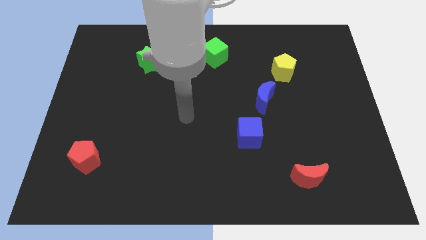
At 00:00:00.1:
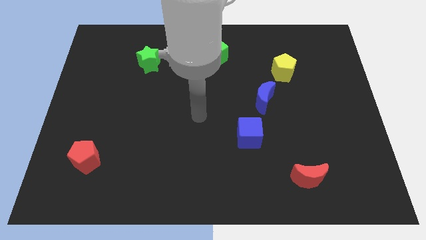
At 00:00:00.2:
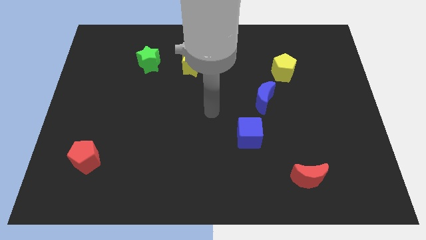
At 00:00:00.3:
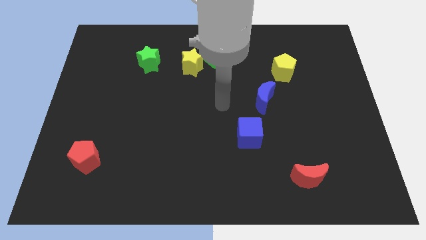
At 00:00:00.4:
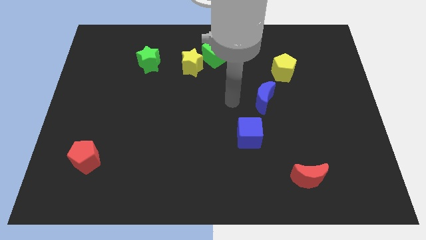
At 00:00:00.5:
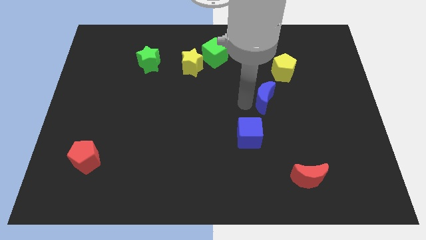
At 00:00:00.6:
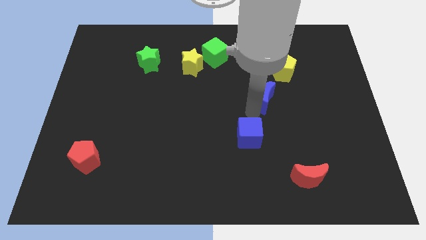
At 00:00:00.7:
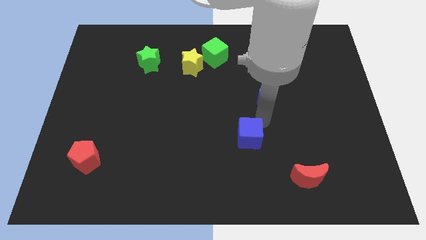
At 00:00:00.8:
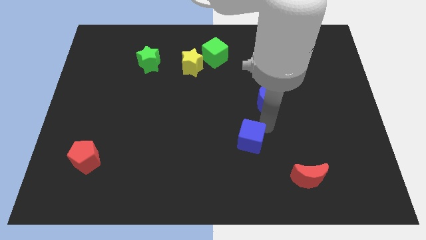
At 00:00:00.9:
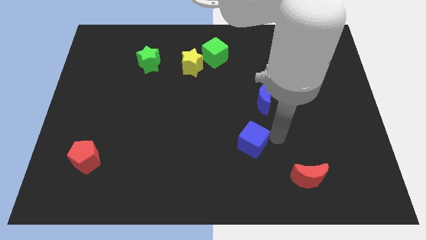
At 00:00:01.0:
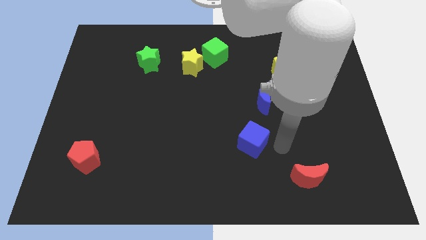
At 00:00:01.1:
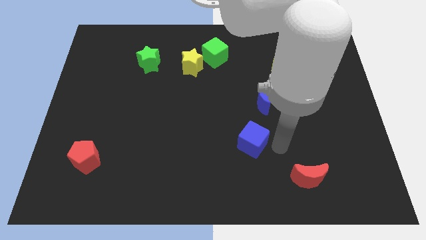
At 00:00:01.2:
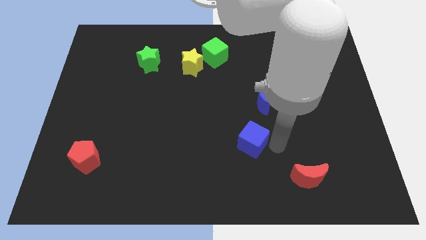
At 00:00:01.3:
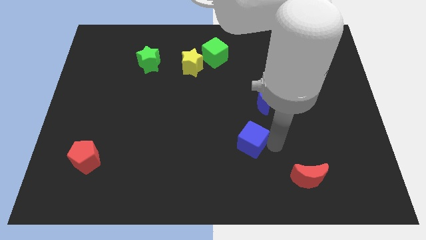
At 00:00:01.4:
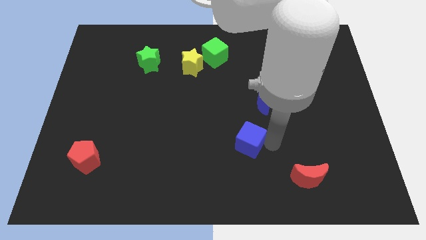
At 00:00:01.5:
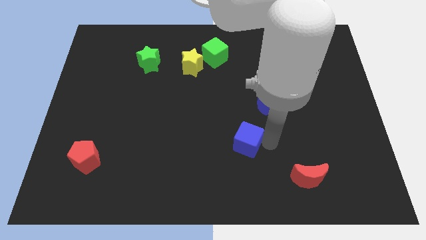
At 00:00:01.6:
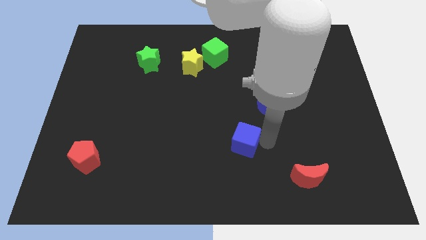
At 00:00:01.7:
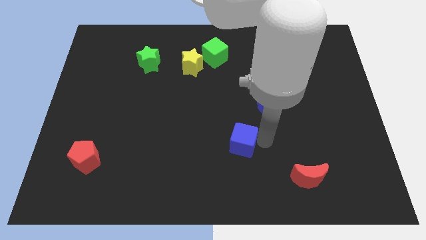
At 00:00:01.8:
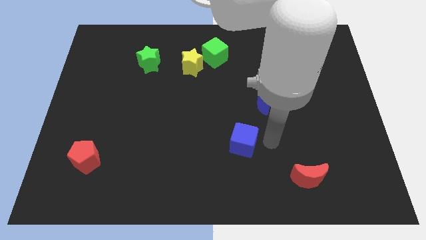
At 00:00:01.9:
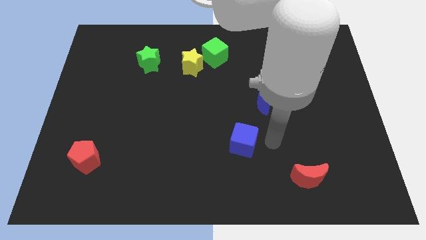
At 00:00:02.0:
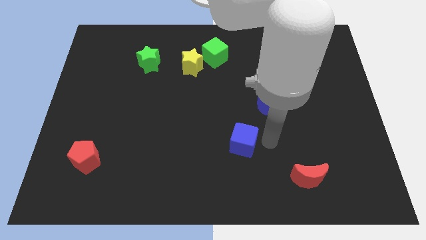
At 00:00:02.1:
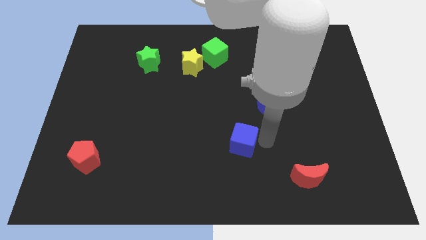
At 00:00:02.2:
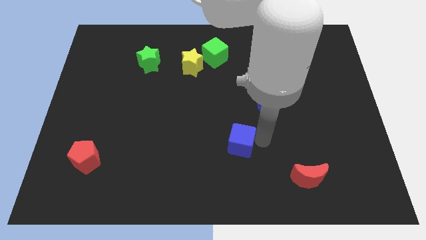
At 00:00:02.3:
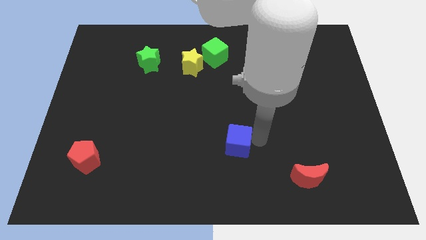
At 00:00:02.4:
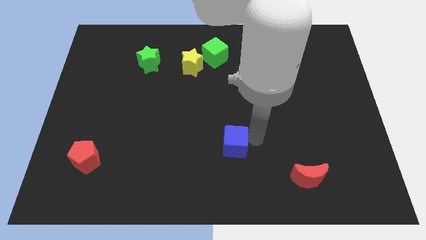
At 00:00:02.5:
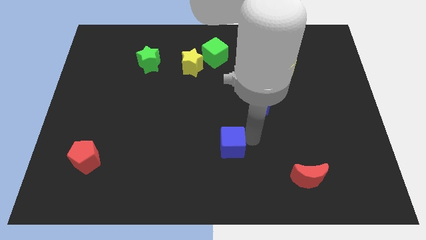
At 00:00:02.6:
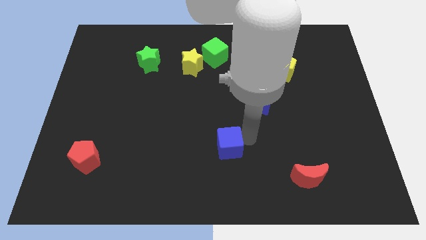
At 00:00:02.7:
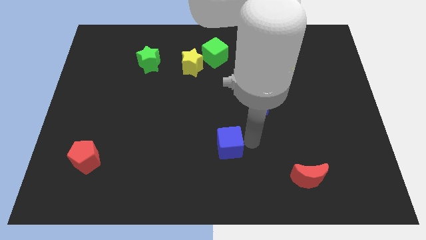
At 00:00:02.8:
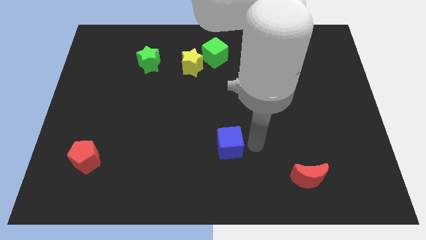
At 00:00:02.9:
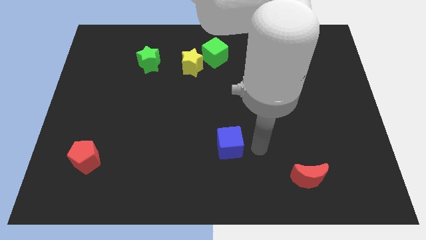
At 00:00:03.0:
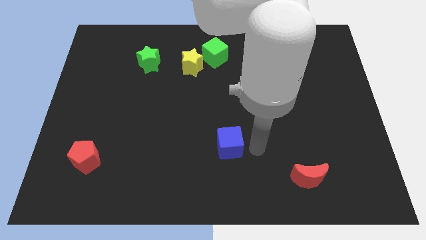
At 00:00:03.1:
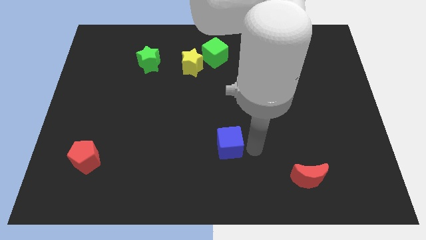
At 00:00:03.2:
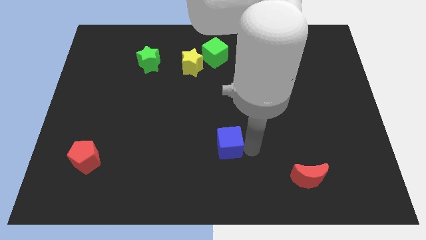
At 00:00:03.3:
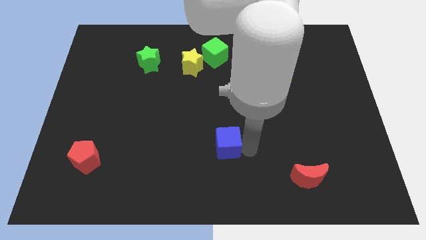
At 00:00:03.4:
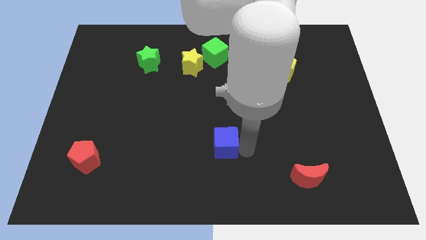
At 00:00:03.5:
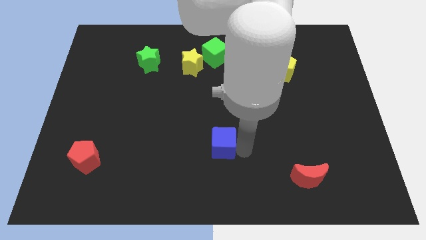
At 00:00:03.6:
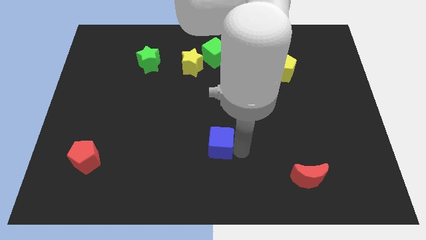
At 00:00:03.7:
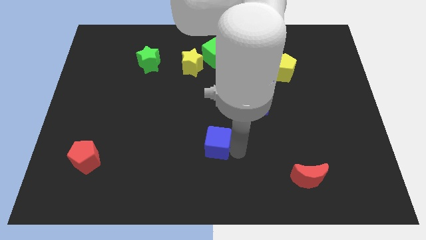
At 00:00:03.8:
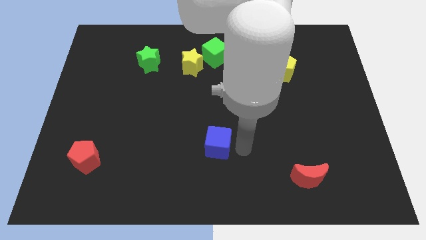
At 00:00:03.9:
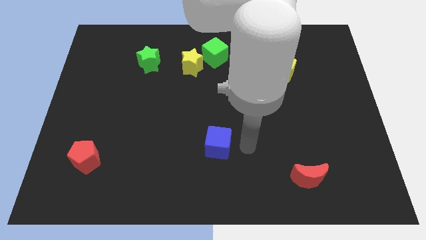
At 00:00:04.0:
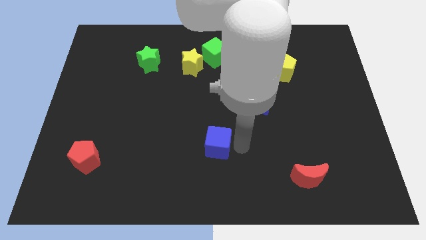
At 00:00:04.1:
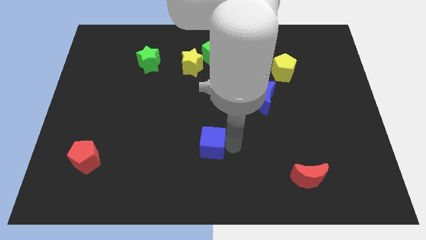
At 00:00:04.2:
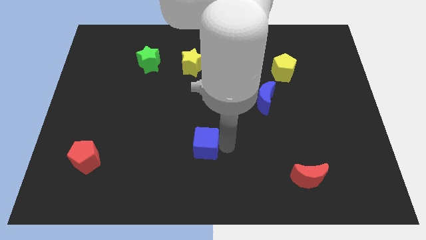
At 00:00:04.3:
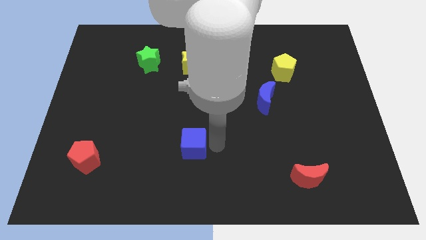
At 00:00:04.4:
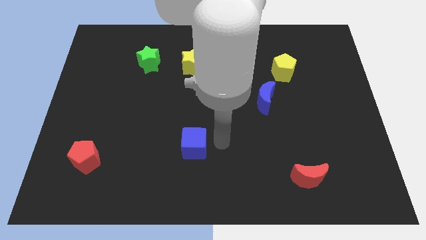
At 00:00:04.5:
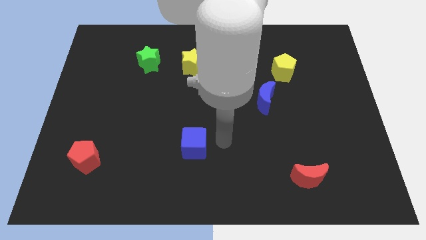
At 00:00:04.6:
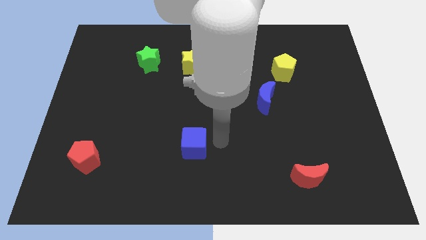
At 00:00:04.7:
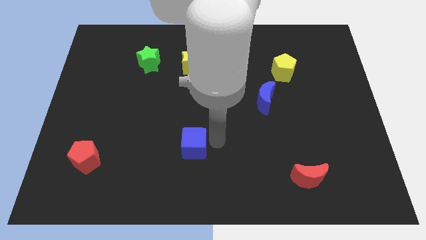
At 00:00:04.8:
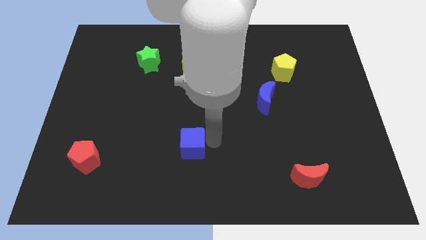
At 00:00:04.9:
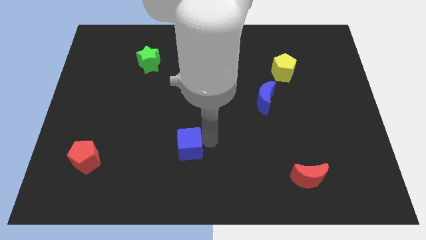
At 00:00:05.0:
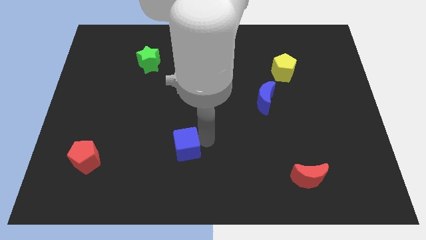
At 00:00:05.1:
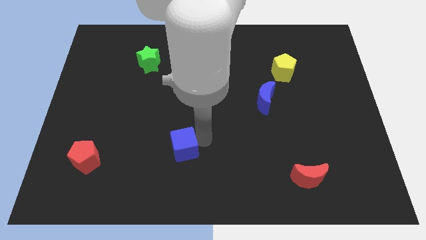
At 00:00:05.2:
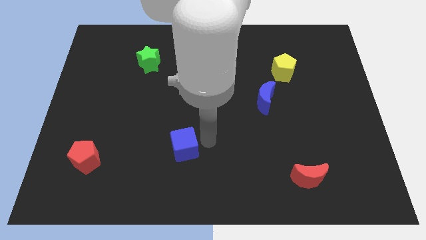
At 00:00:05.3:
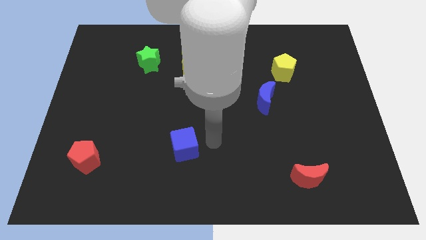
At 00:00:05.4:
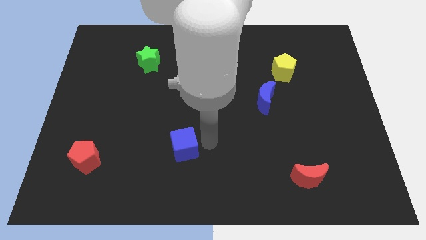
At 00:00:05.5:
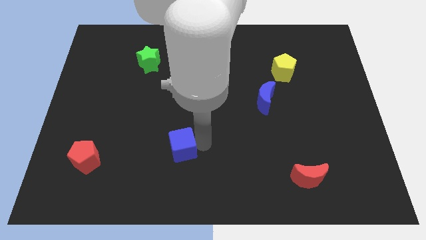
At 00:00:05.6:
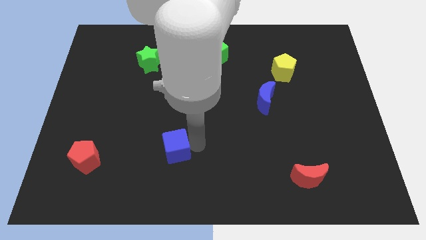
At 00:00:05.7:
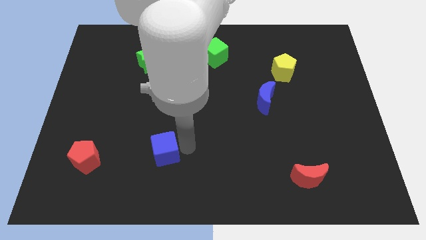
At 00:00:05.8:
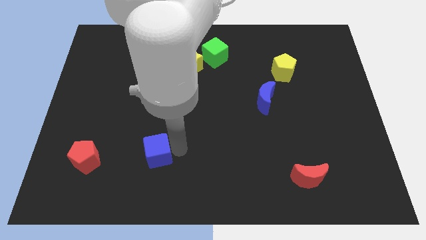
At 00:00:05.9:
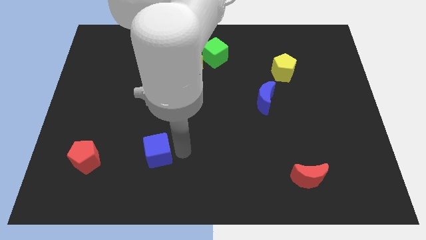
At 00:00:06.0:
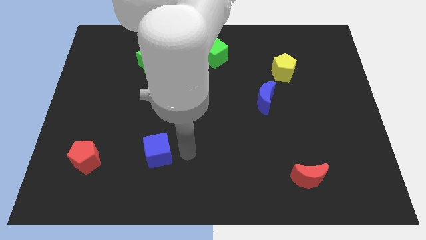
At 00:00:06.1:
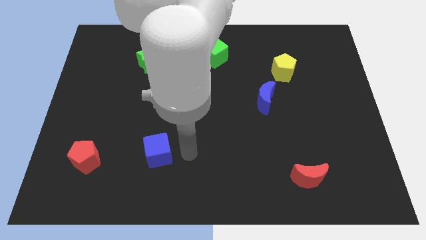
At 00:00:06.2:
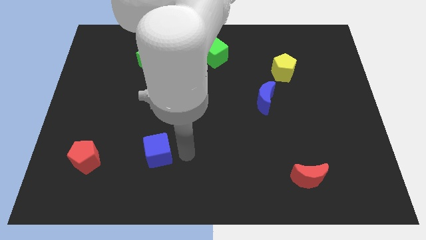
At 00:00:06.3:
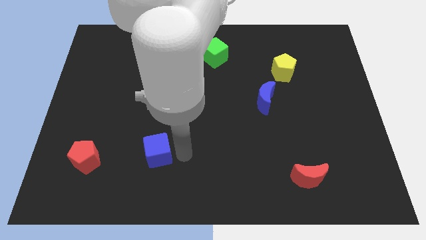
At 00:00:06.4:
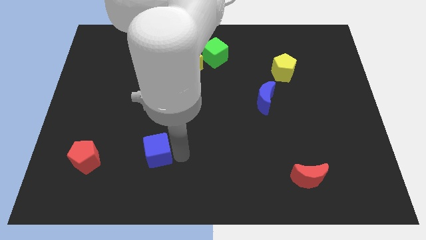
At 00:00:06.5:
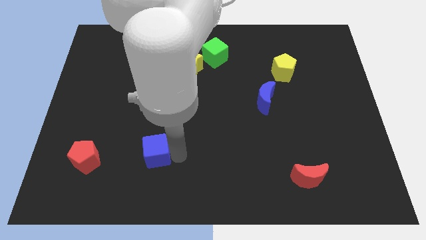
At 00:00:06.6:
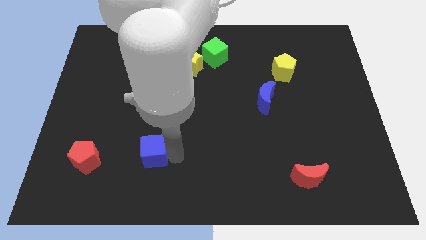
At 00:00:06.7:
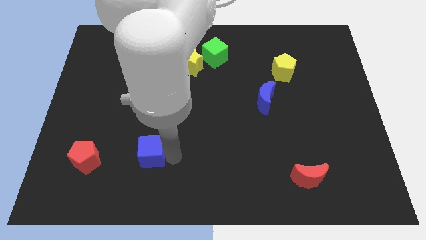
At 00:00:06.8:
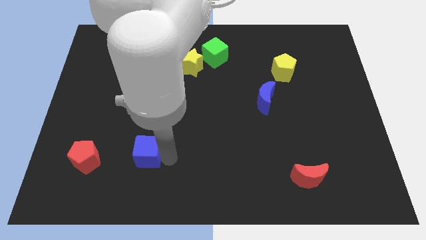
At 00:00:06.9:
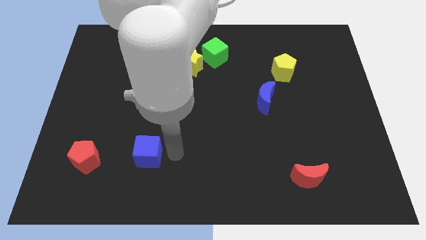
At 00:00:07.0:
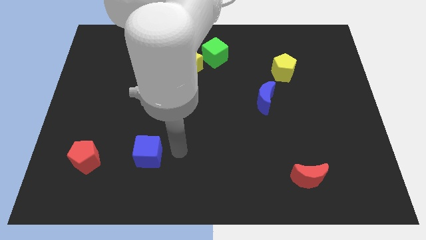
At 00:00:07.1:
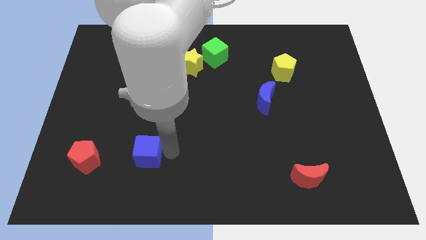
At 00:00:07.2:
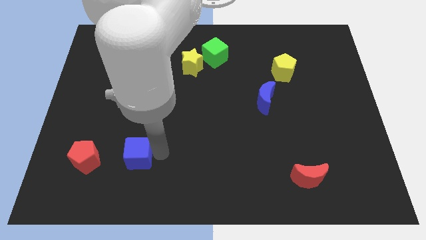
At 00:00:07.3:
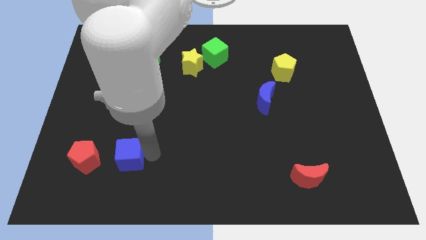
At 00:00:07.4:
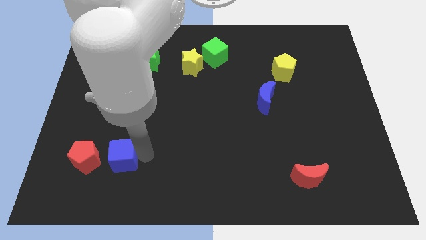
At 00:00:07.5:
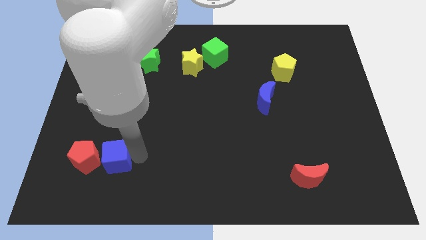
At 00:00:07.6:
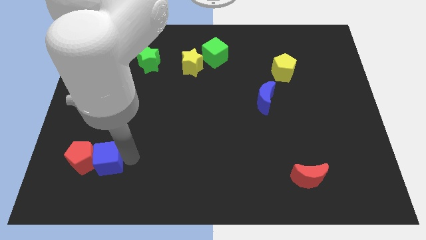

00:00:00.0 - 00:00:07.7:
slide the blue cube close to the red pentagon
